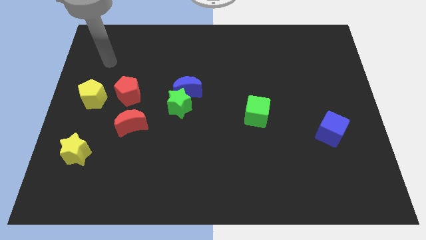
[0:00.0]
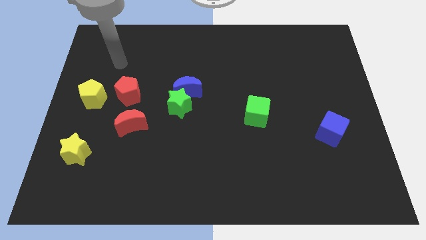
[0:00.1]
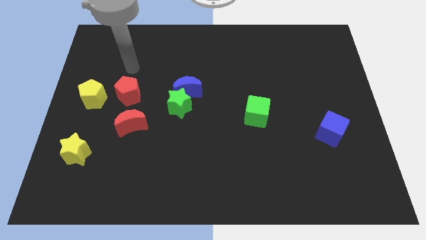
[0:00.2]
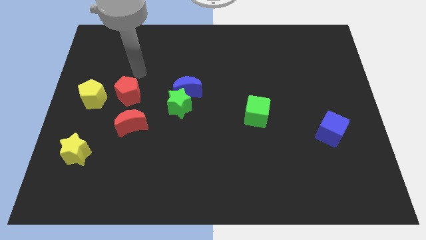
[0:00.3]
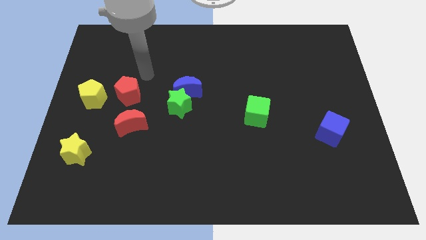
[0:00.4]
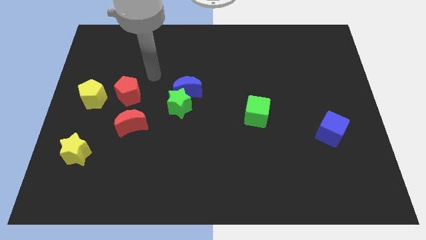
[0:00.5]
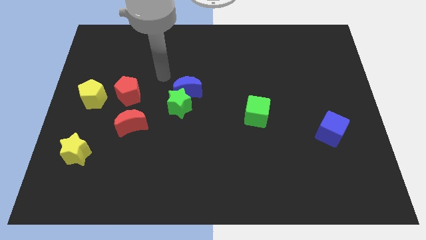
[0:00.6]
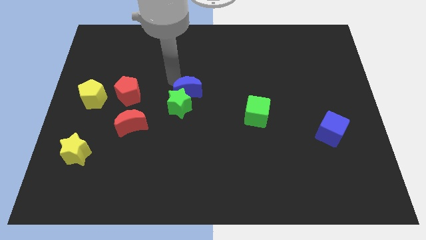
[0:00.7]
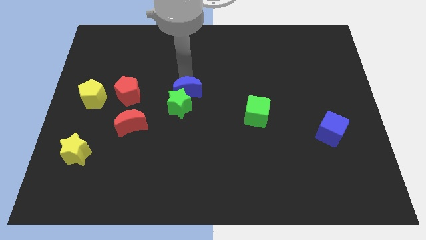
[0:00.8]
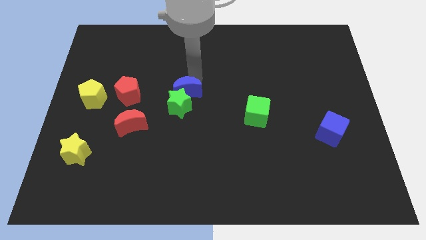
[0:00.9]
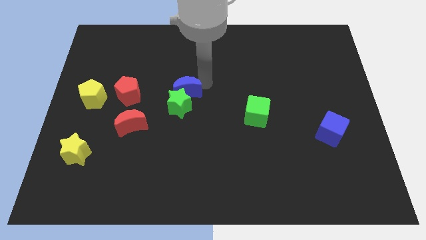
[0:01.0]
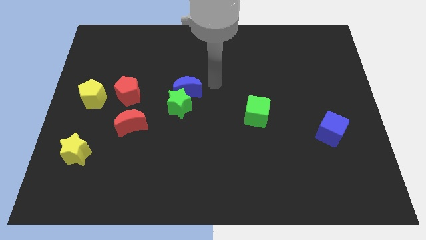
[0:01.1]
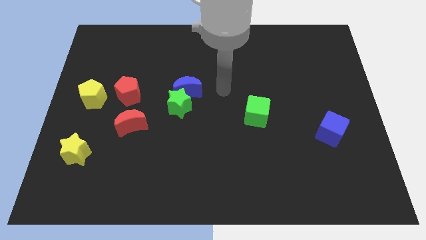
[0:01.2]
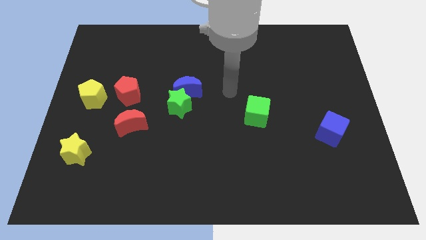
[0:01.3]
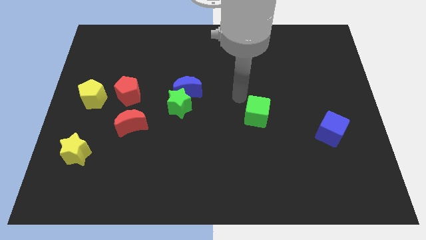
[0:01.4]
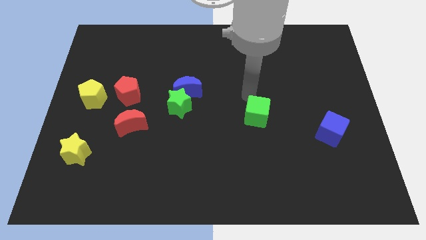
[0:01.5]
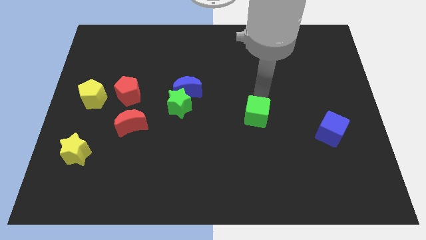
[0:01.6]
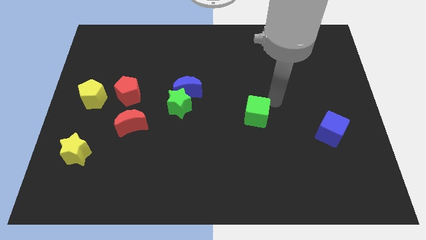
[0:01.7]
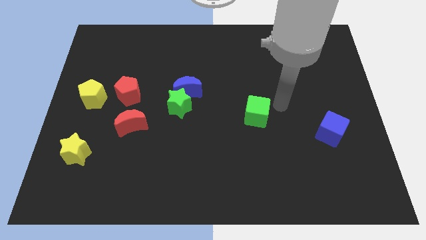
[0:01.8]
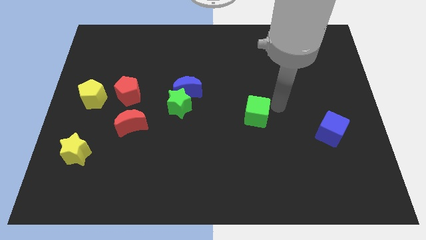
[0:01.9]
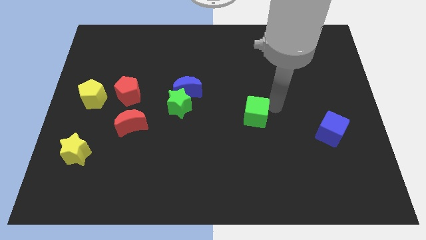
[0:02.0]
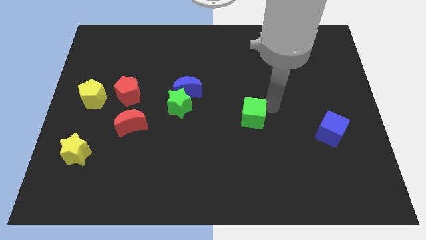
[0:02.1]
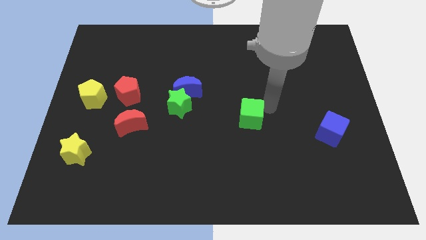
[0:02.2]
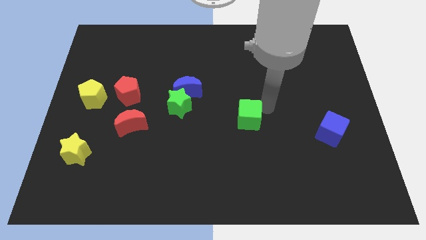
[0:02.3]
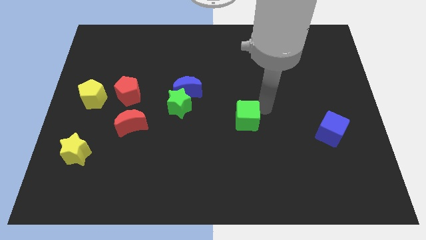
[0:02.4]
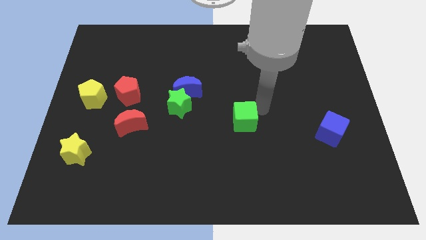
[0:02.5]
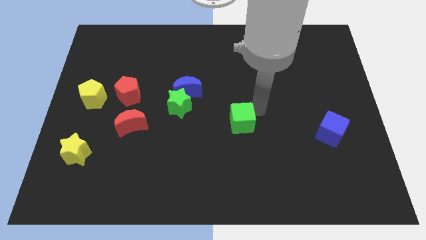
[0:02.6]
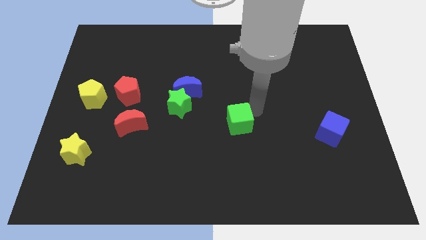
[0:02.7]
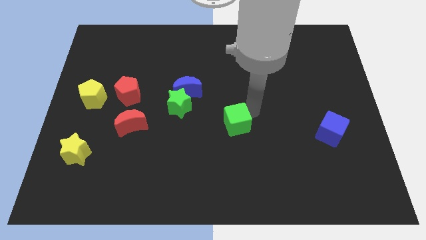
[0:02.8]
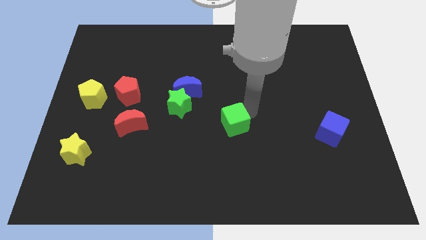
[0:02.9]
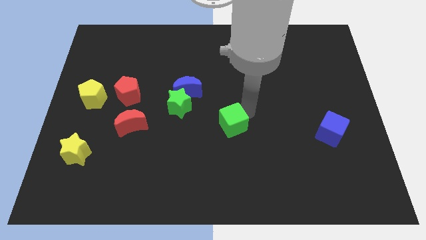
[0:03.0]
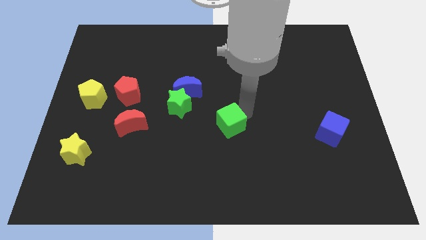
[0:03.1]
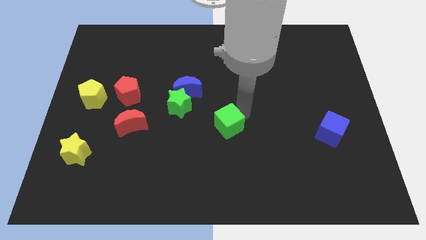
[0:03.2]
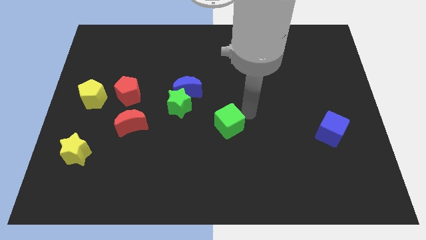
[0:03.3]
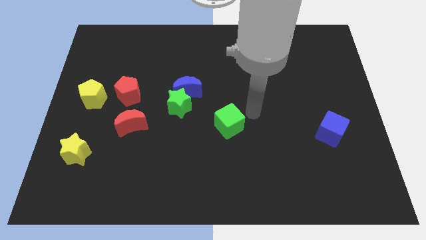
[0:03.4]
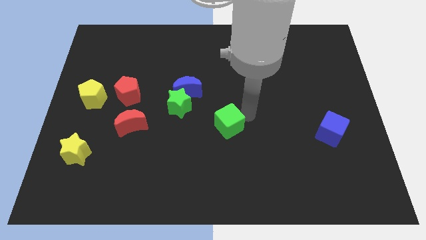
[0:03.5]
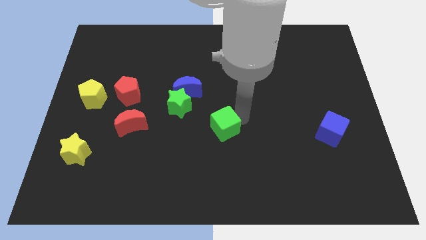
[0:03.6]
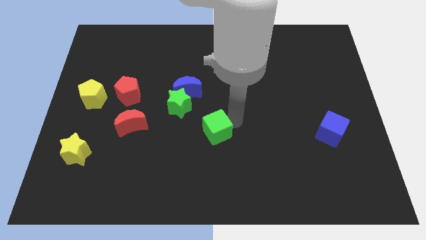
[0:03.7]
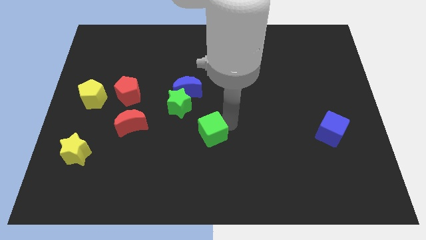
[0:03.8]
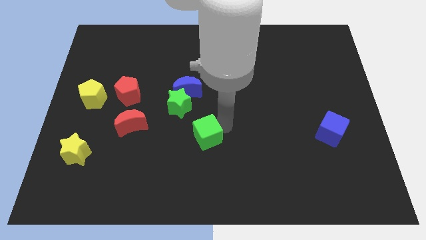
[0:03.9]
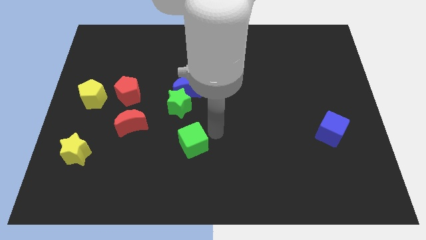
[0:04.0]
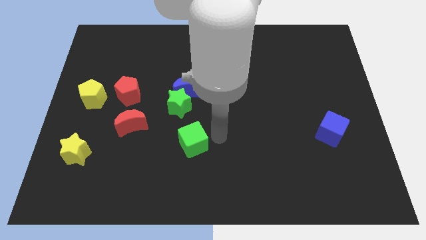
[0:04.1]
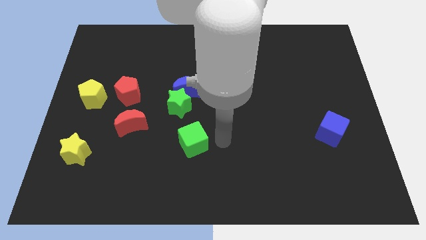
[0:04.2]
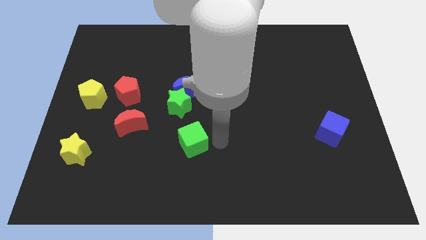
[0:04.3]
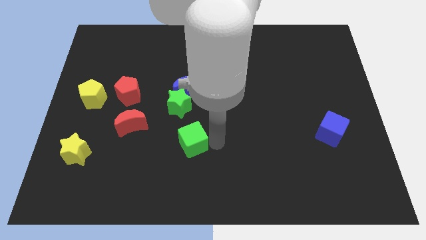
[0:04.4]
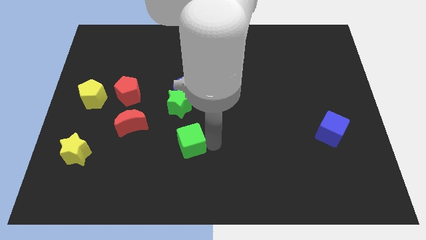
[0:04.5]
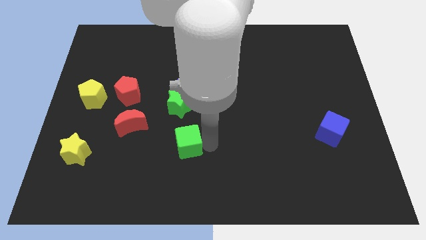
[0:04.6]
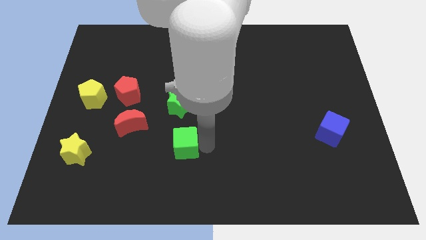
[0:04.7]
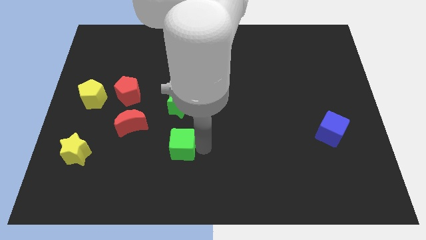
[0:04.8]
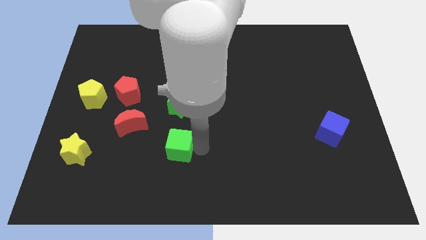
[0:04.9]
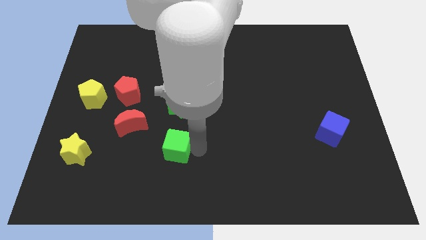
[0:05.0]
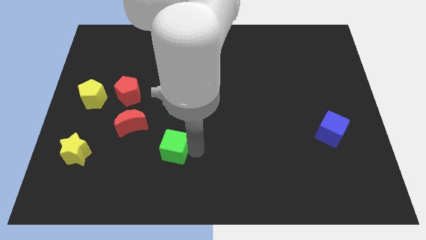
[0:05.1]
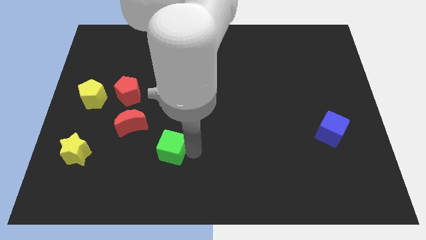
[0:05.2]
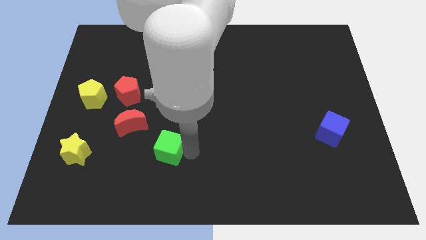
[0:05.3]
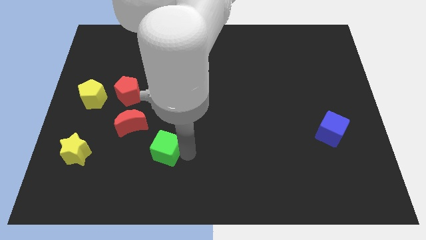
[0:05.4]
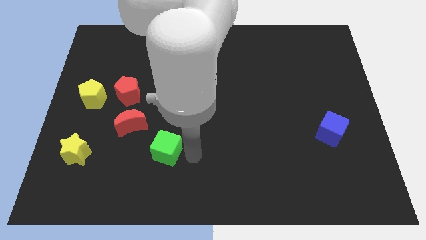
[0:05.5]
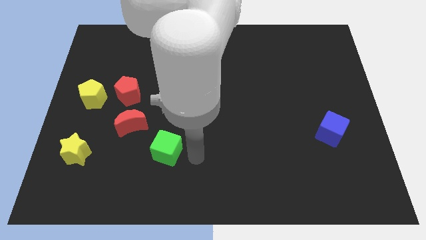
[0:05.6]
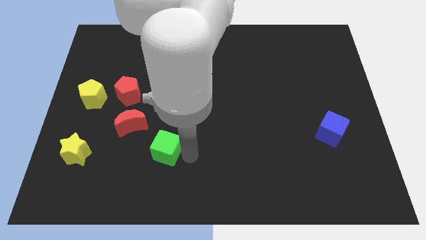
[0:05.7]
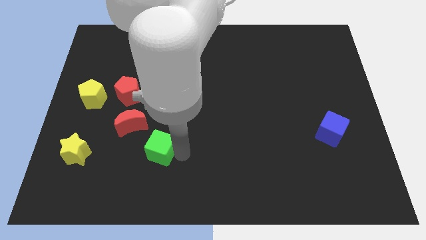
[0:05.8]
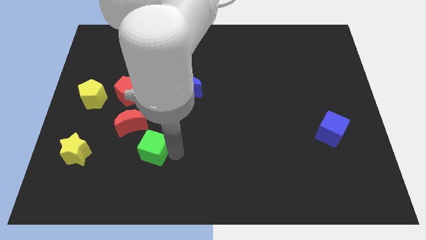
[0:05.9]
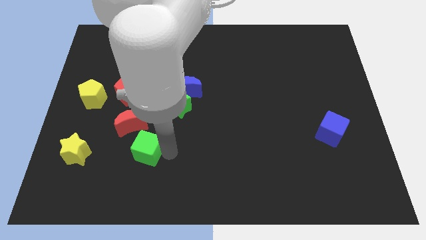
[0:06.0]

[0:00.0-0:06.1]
slide the green cube to the left

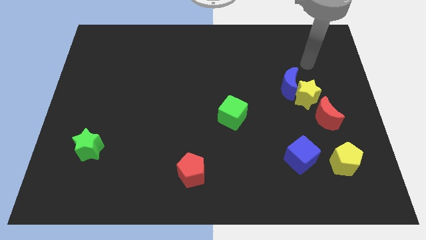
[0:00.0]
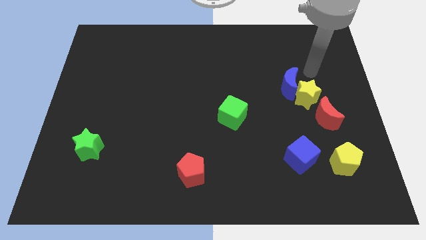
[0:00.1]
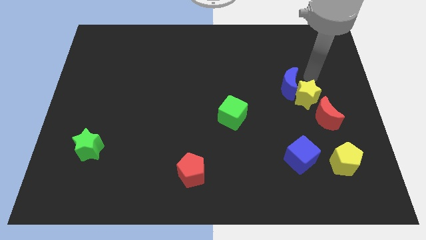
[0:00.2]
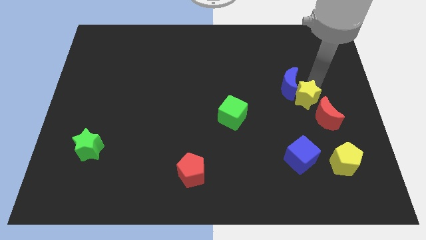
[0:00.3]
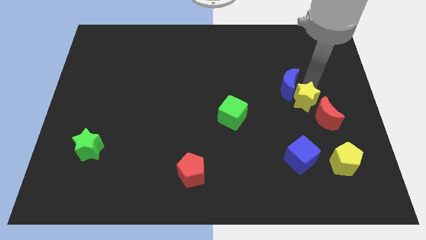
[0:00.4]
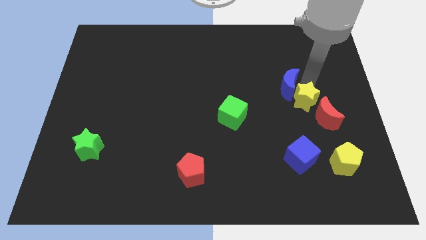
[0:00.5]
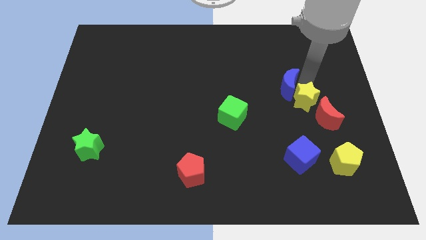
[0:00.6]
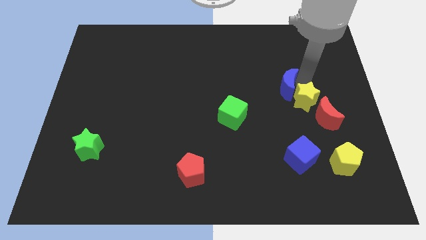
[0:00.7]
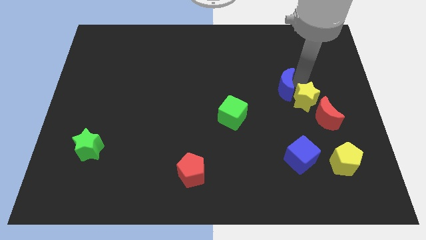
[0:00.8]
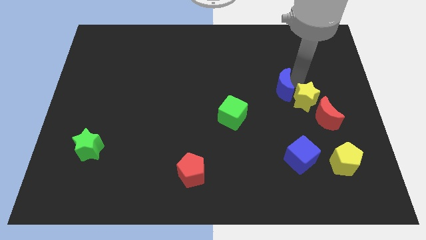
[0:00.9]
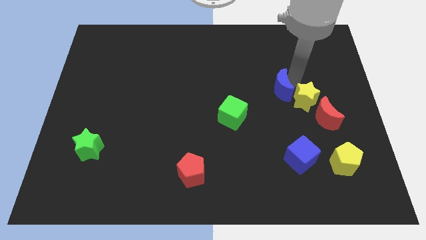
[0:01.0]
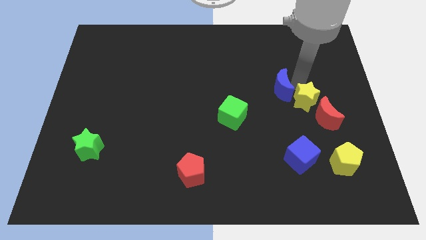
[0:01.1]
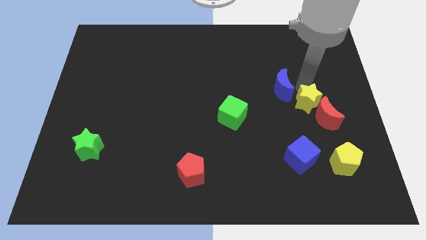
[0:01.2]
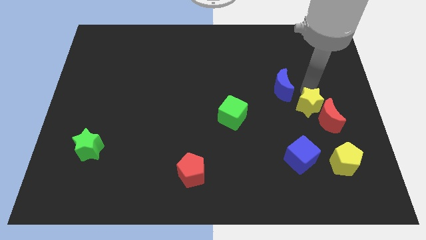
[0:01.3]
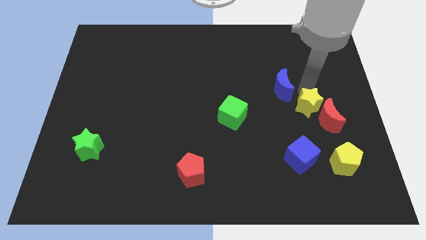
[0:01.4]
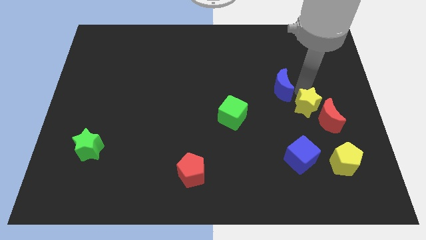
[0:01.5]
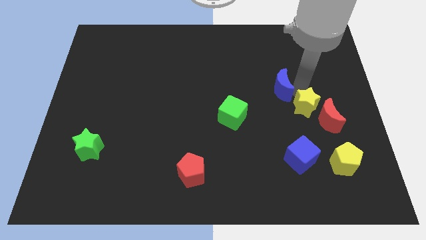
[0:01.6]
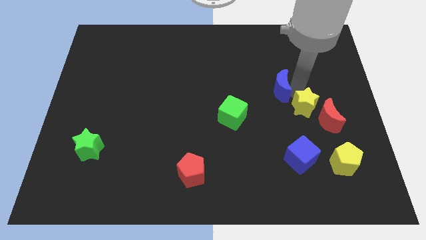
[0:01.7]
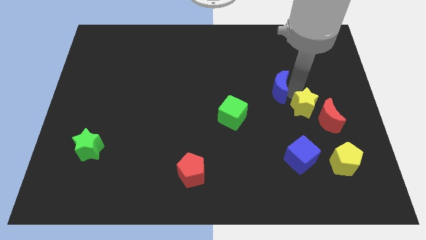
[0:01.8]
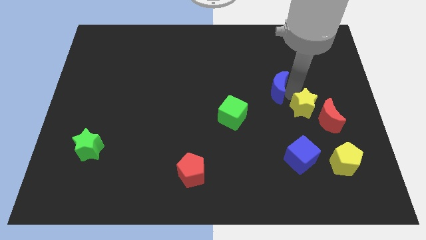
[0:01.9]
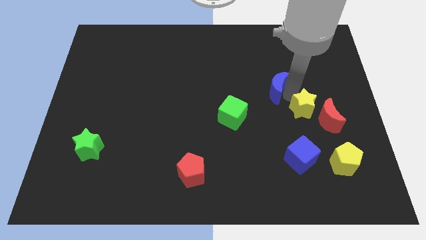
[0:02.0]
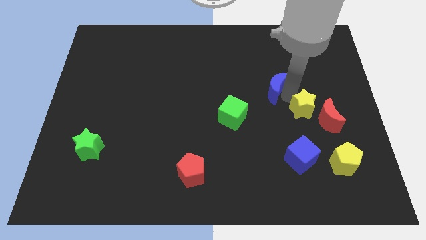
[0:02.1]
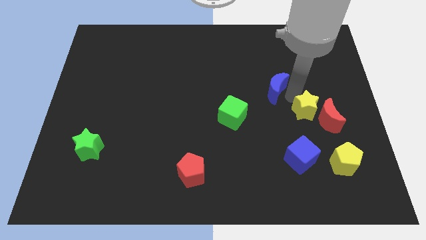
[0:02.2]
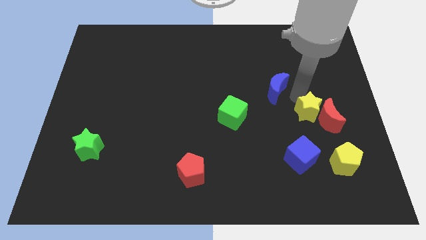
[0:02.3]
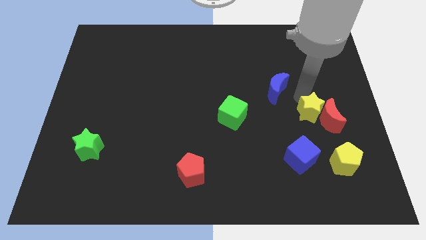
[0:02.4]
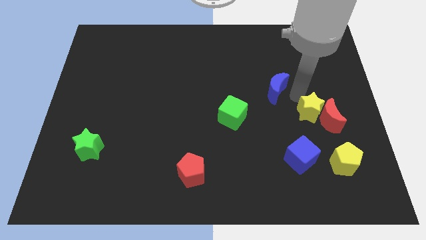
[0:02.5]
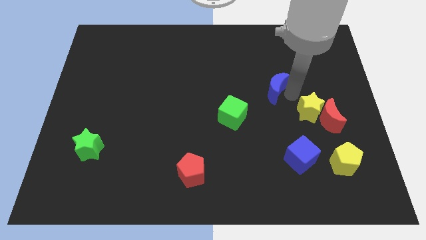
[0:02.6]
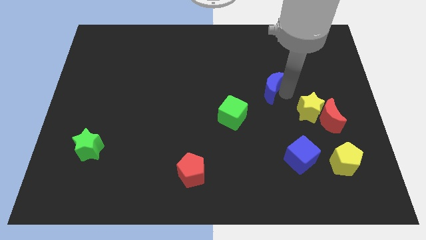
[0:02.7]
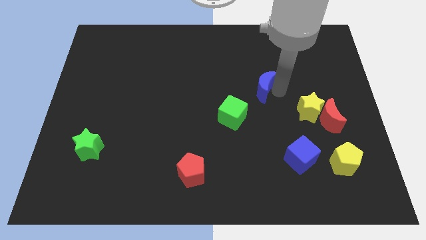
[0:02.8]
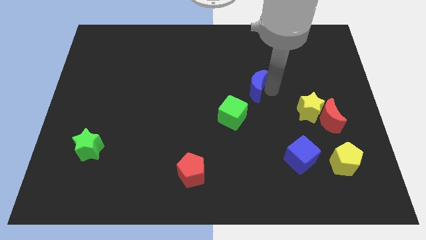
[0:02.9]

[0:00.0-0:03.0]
slide the blue moon left a bit
